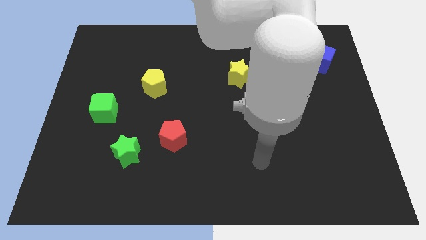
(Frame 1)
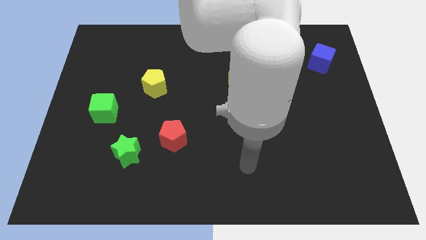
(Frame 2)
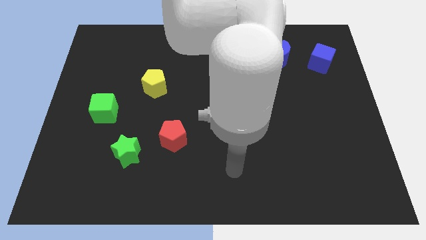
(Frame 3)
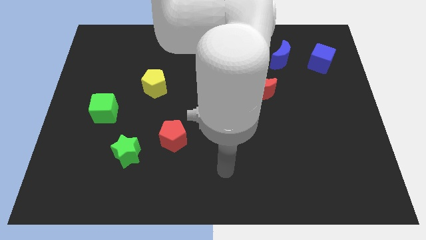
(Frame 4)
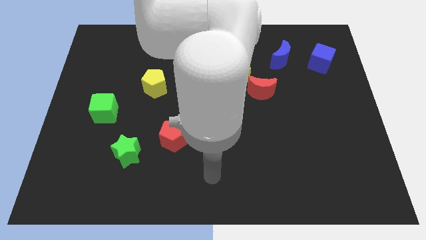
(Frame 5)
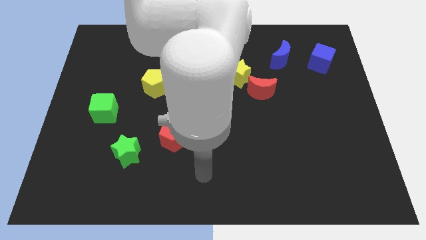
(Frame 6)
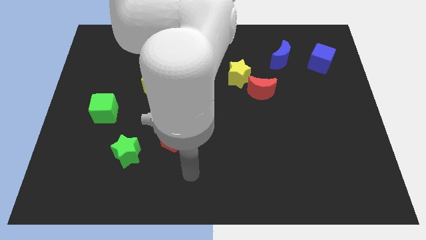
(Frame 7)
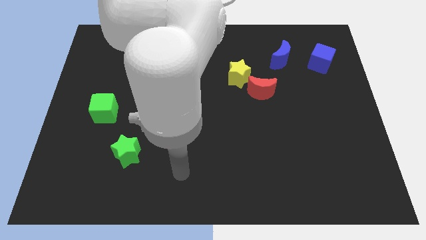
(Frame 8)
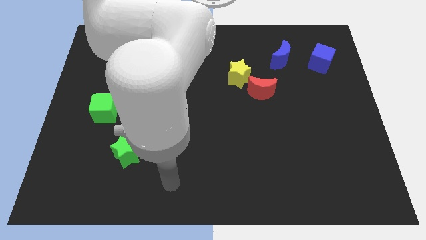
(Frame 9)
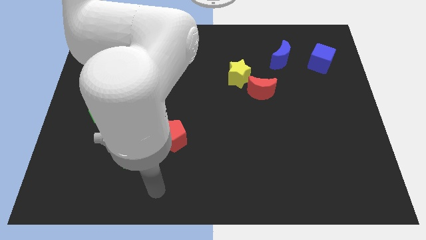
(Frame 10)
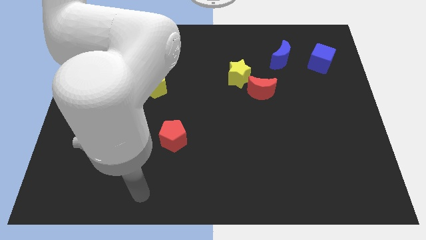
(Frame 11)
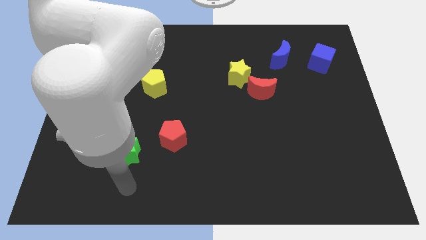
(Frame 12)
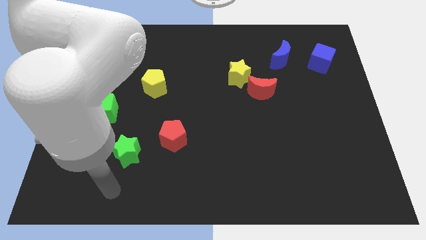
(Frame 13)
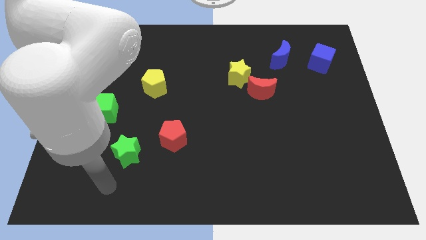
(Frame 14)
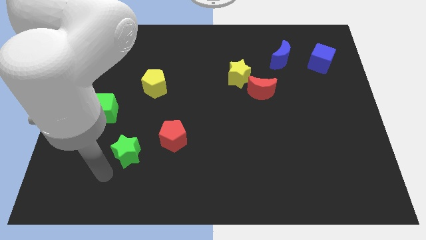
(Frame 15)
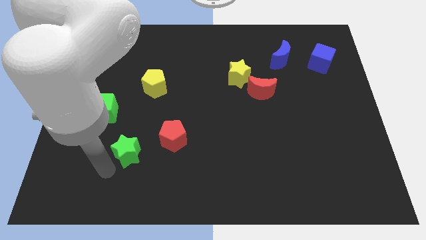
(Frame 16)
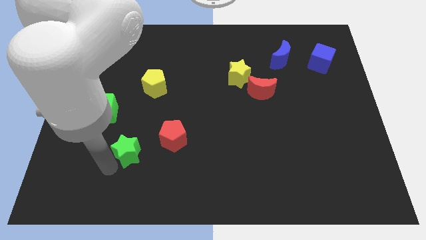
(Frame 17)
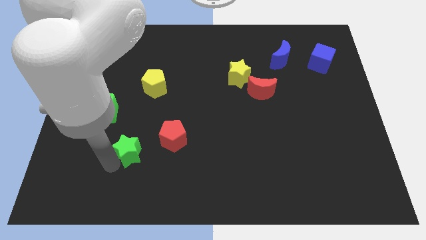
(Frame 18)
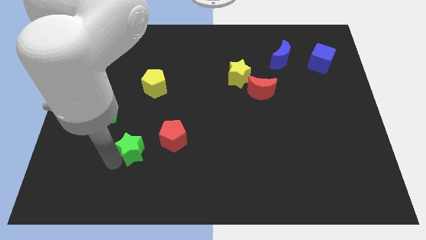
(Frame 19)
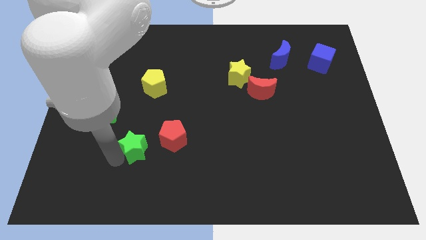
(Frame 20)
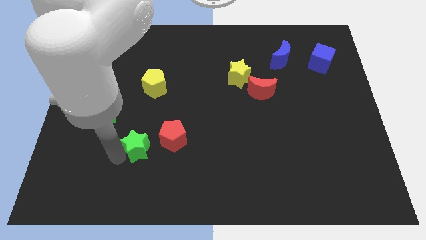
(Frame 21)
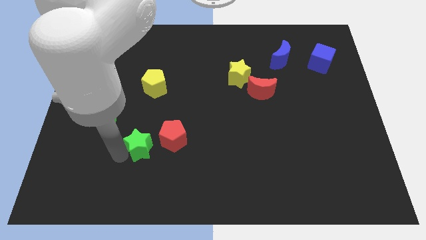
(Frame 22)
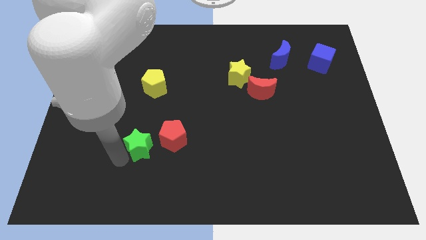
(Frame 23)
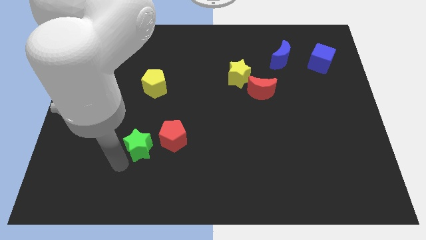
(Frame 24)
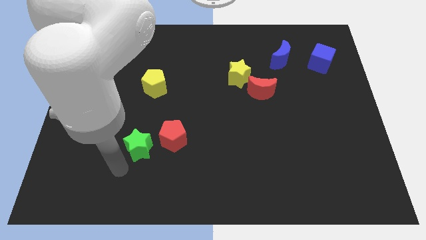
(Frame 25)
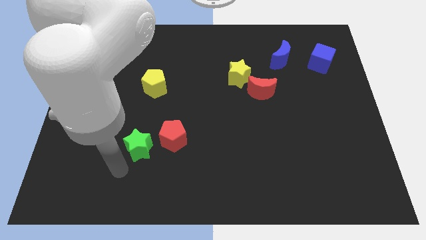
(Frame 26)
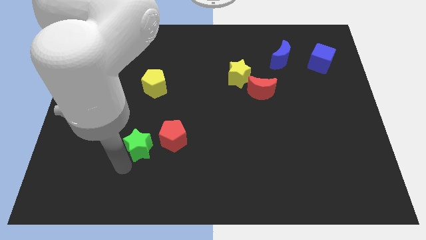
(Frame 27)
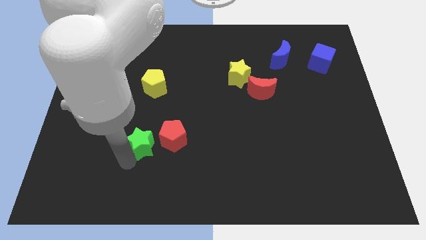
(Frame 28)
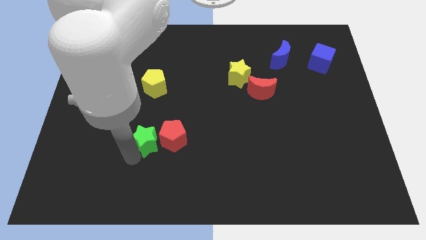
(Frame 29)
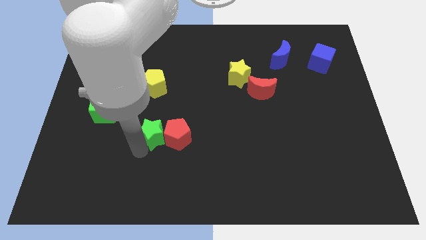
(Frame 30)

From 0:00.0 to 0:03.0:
slide the green star a little up and to the right

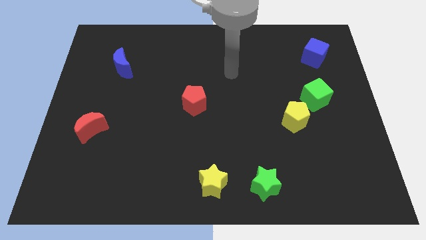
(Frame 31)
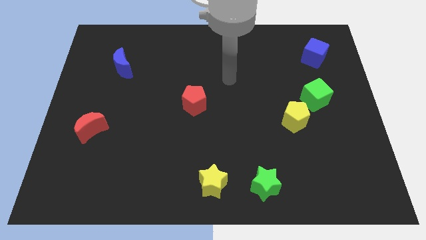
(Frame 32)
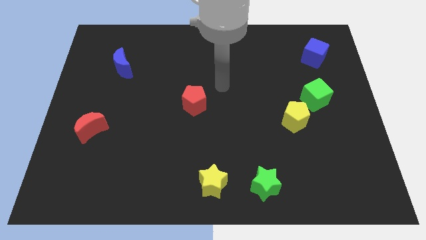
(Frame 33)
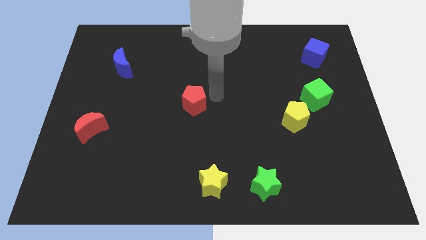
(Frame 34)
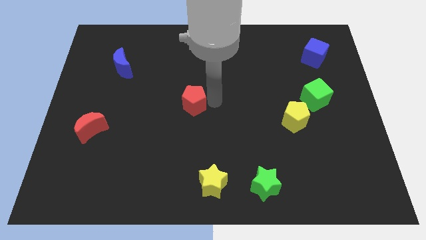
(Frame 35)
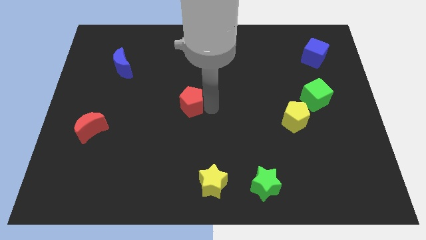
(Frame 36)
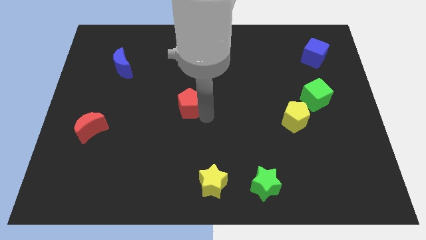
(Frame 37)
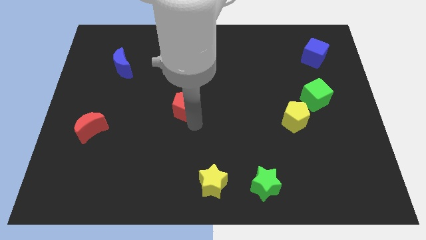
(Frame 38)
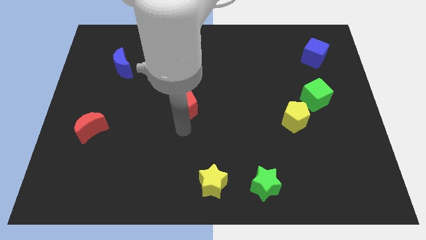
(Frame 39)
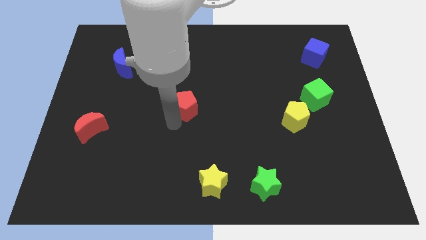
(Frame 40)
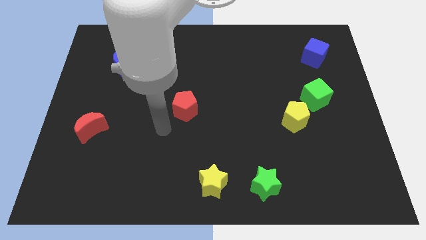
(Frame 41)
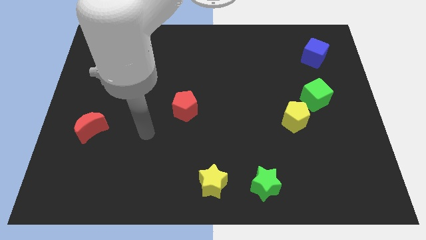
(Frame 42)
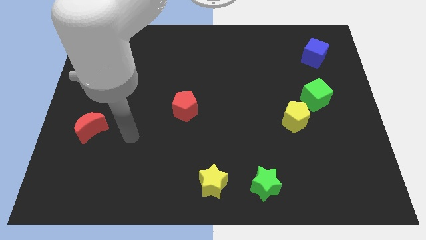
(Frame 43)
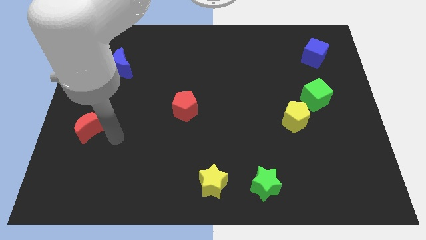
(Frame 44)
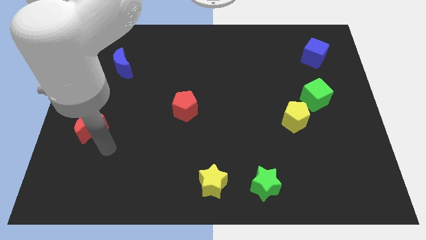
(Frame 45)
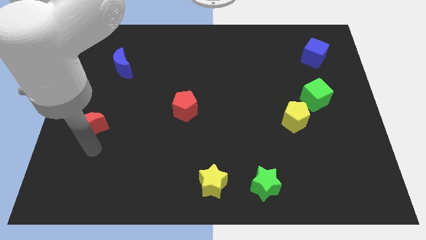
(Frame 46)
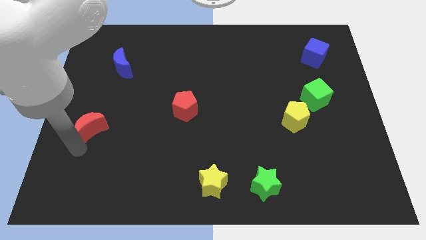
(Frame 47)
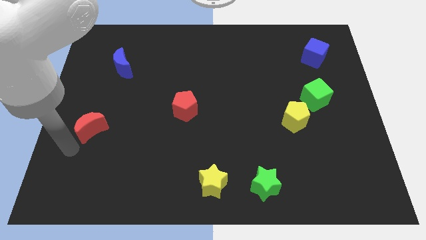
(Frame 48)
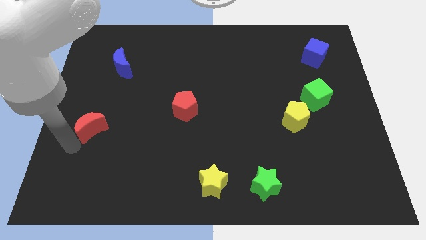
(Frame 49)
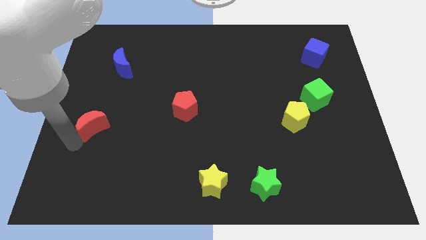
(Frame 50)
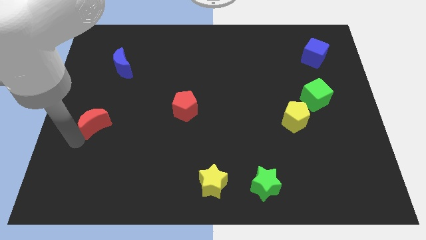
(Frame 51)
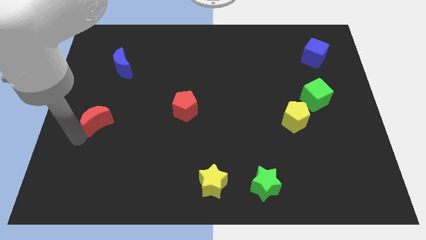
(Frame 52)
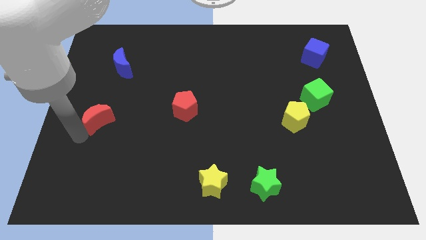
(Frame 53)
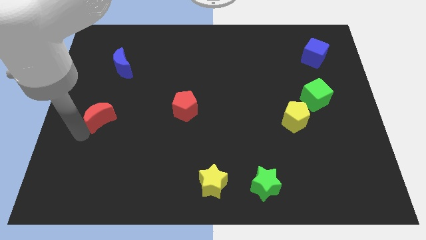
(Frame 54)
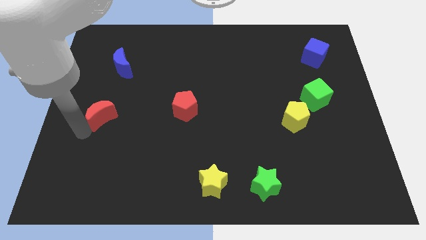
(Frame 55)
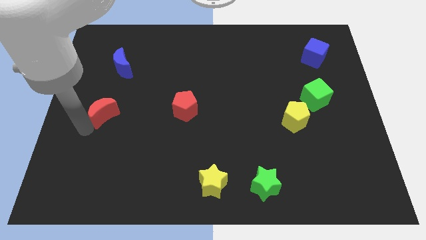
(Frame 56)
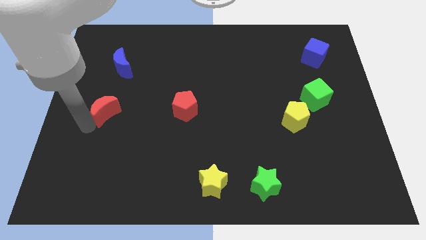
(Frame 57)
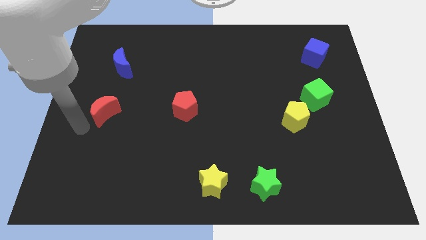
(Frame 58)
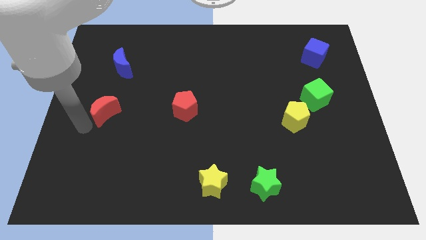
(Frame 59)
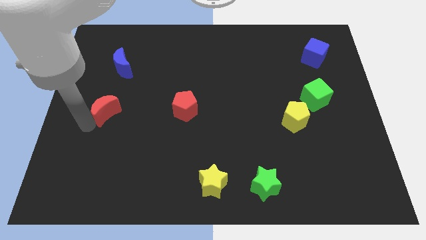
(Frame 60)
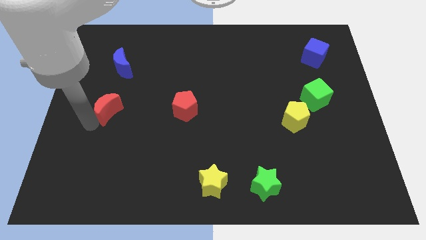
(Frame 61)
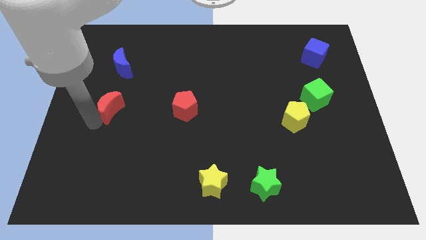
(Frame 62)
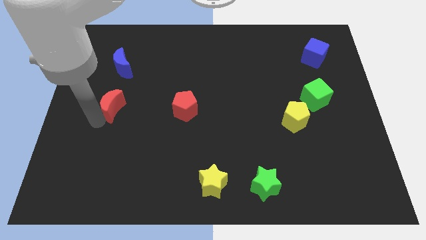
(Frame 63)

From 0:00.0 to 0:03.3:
slide the red moon a bit diagonally up and right

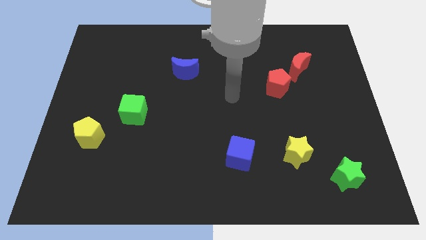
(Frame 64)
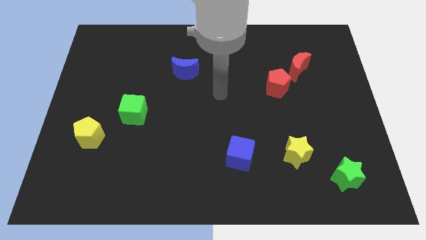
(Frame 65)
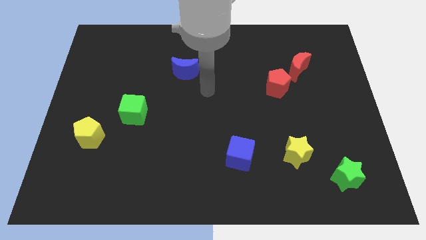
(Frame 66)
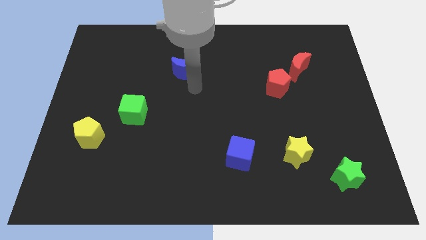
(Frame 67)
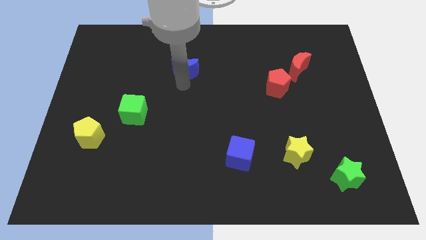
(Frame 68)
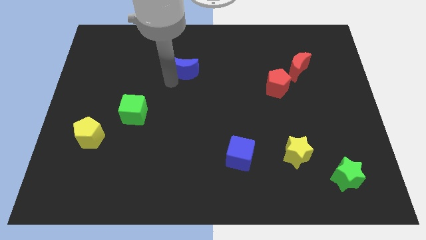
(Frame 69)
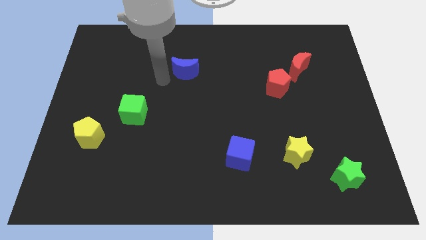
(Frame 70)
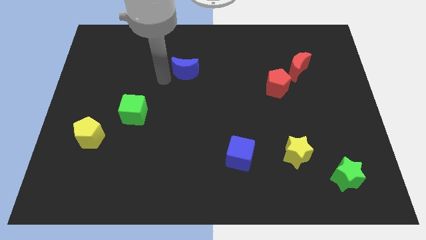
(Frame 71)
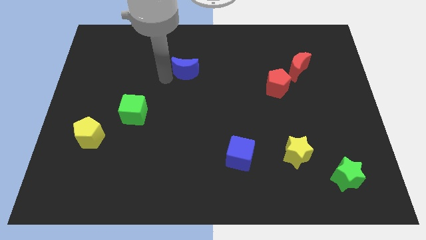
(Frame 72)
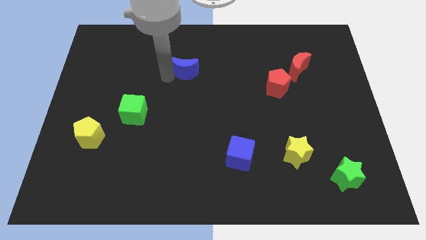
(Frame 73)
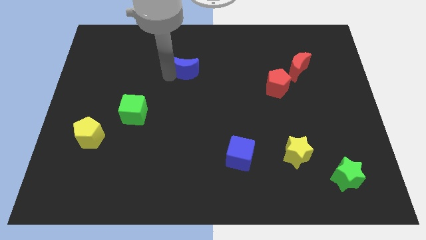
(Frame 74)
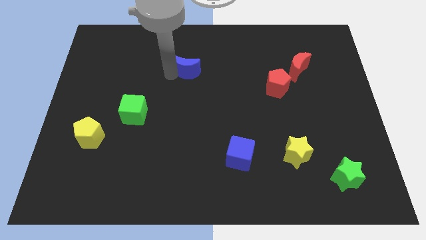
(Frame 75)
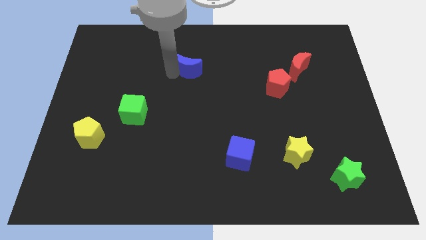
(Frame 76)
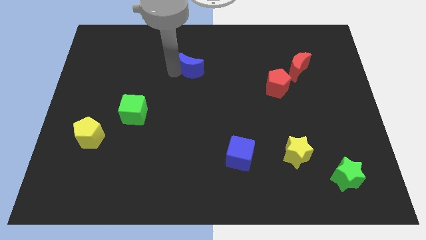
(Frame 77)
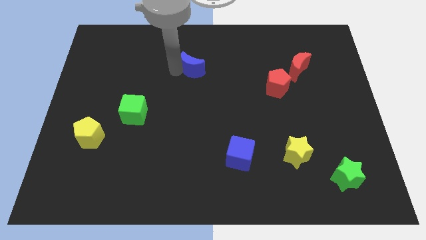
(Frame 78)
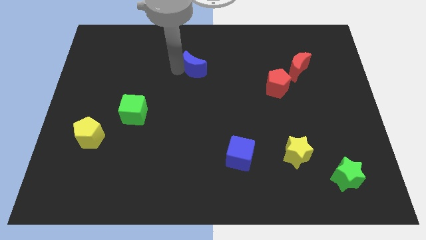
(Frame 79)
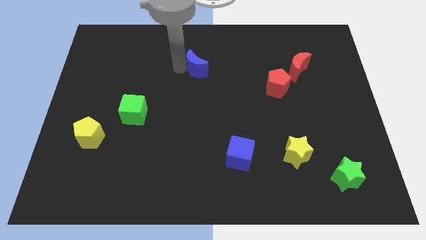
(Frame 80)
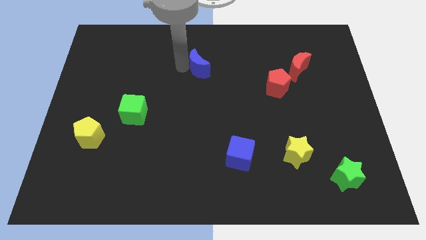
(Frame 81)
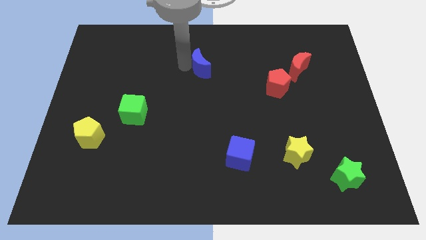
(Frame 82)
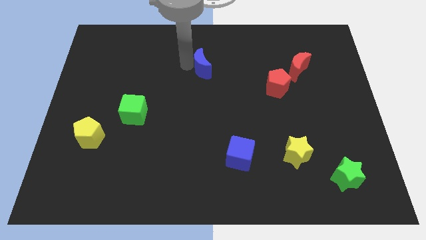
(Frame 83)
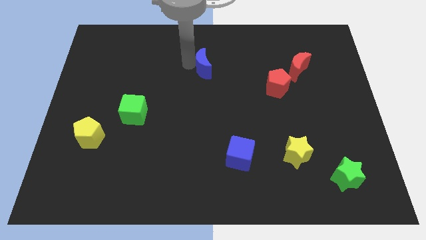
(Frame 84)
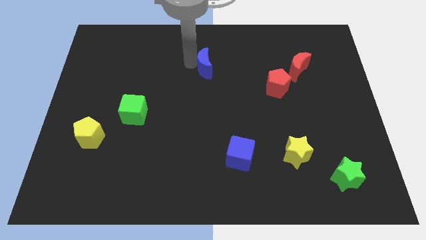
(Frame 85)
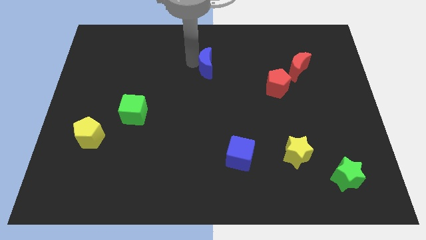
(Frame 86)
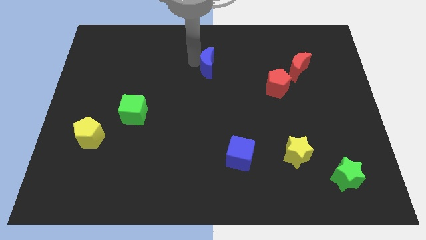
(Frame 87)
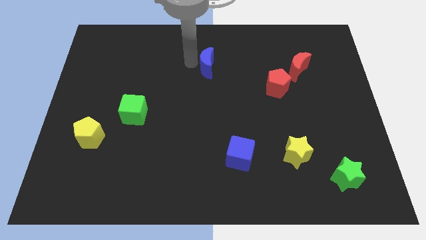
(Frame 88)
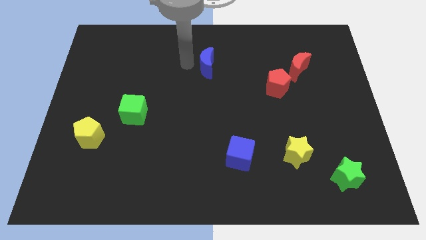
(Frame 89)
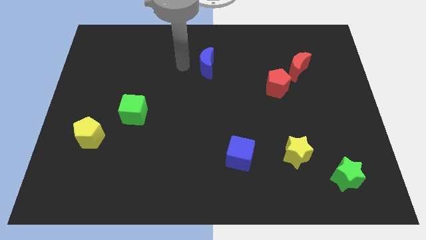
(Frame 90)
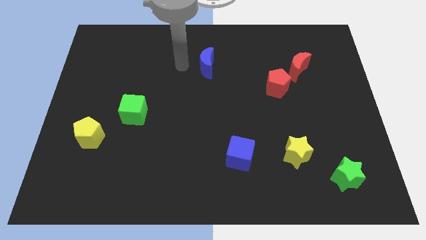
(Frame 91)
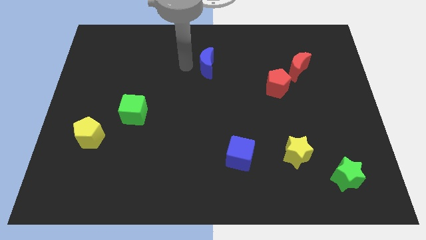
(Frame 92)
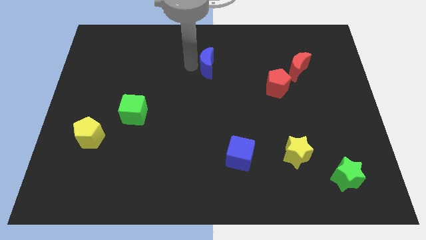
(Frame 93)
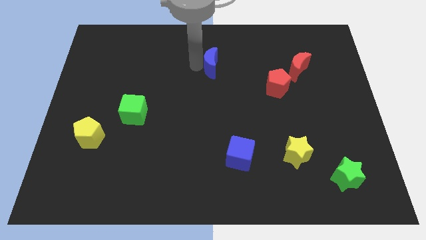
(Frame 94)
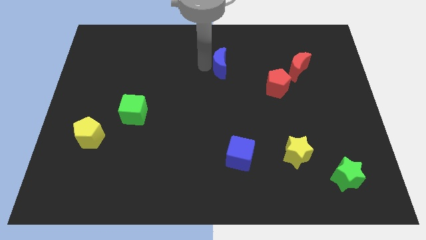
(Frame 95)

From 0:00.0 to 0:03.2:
move the blue moon a little bit to the right
